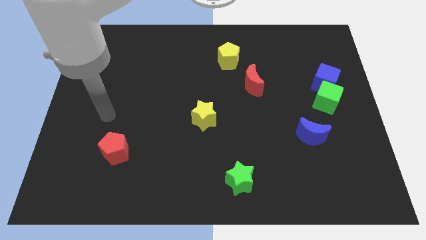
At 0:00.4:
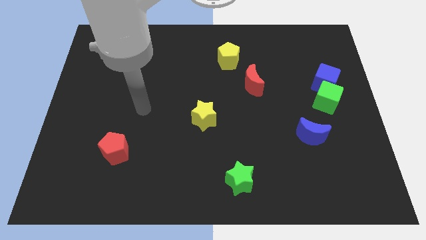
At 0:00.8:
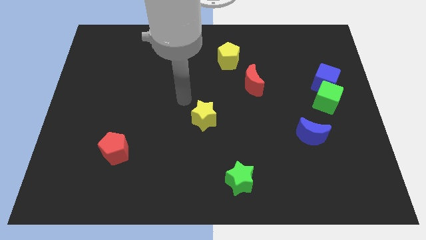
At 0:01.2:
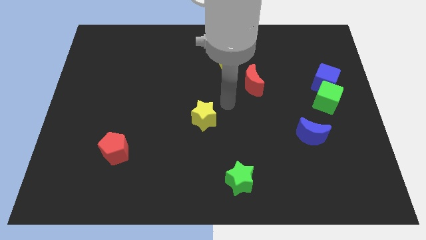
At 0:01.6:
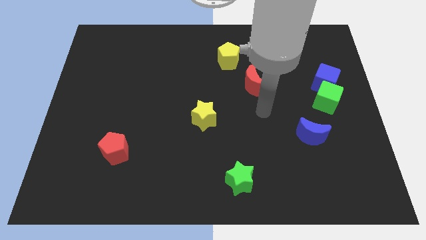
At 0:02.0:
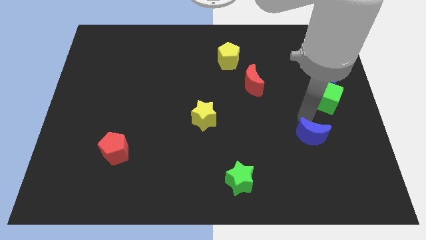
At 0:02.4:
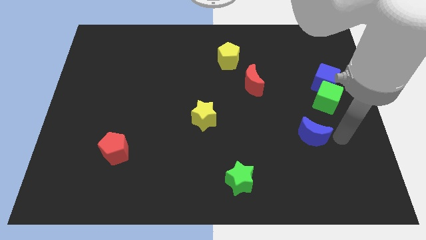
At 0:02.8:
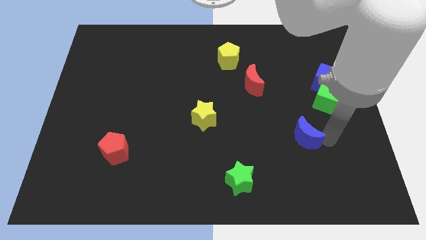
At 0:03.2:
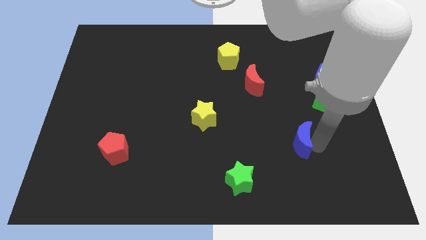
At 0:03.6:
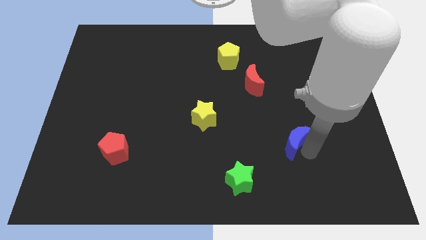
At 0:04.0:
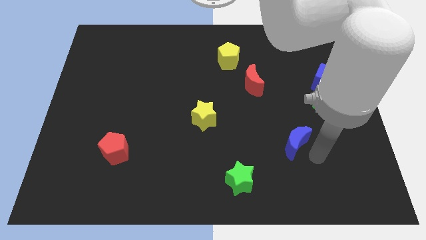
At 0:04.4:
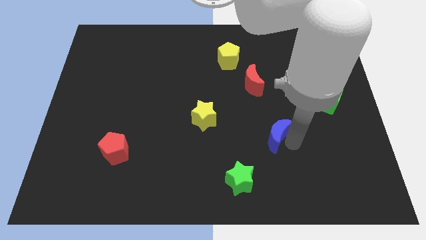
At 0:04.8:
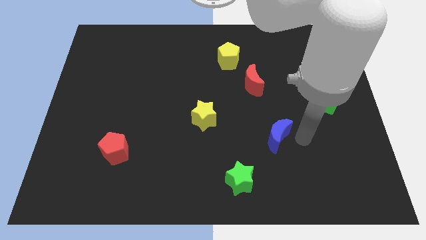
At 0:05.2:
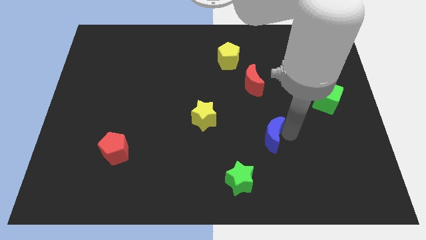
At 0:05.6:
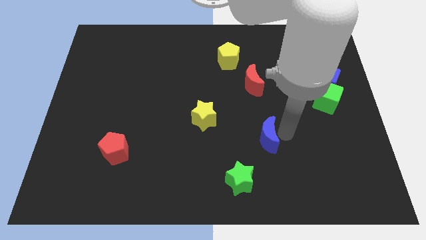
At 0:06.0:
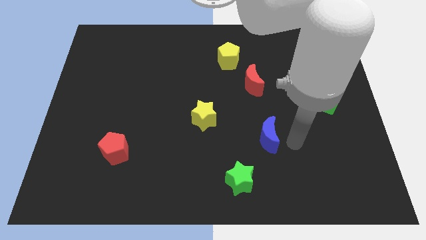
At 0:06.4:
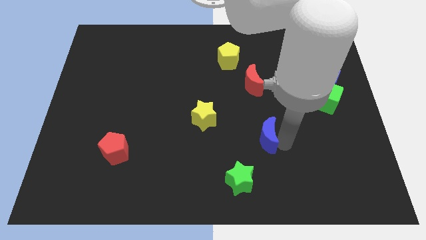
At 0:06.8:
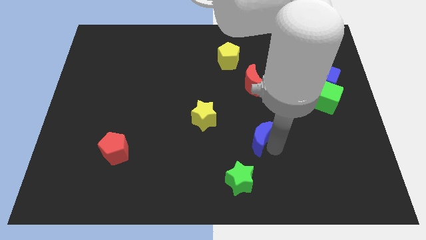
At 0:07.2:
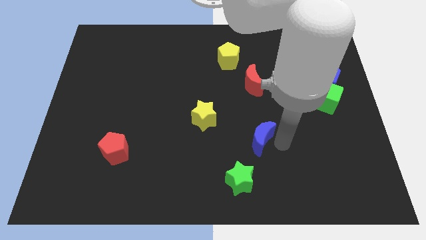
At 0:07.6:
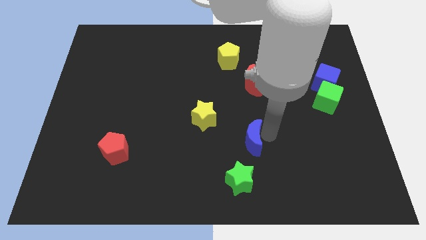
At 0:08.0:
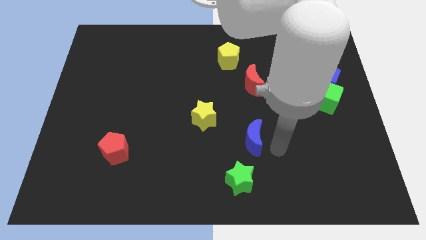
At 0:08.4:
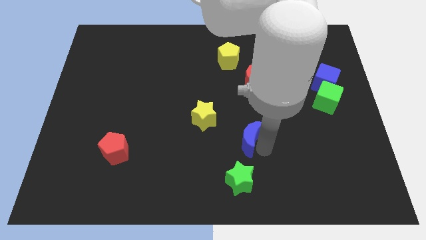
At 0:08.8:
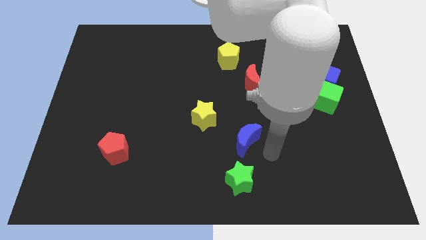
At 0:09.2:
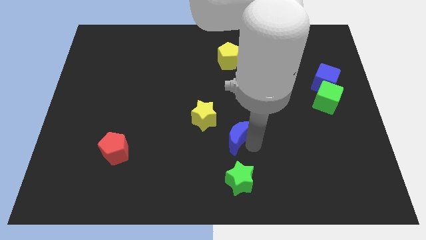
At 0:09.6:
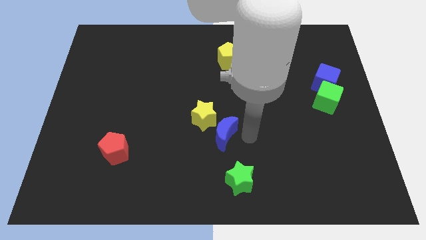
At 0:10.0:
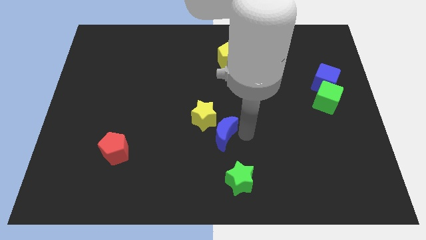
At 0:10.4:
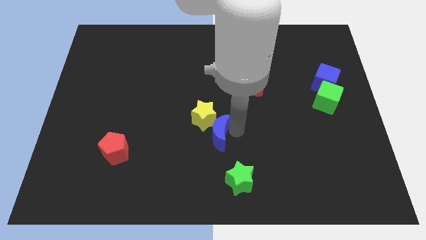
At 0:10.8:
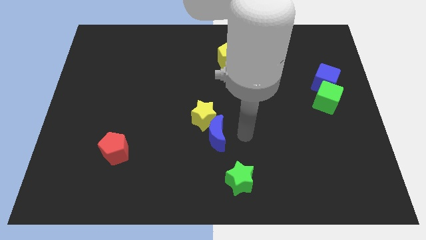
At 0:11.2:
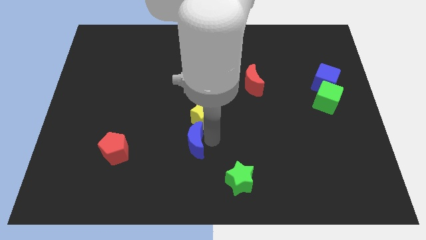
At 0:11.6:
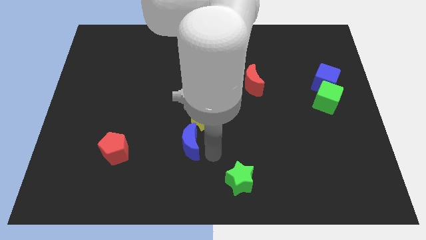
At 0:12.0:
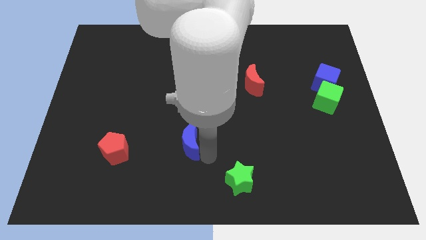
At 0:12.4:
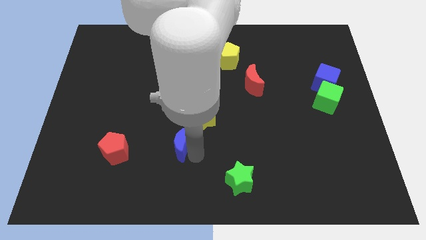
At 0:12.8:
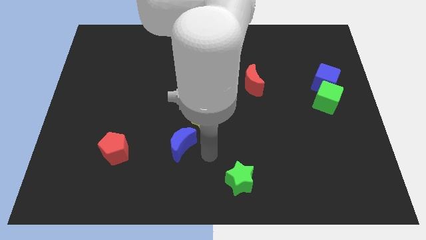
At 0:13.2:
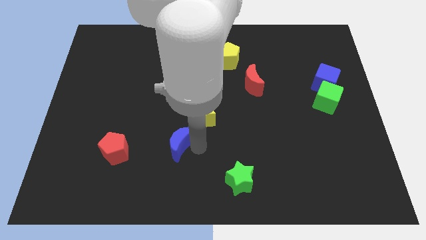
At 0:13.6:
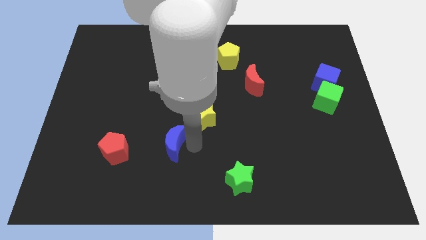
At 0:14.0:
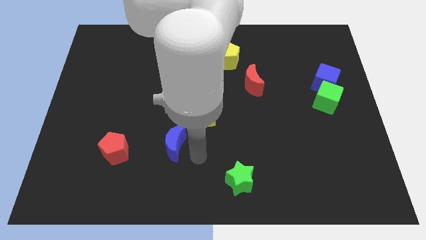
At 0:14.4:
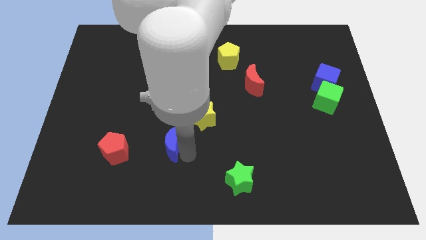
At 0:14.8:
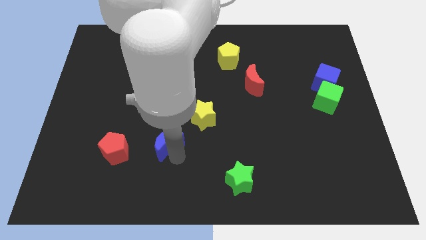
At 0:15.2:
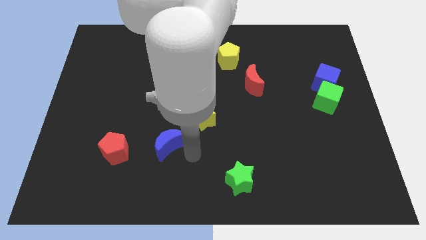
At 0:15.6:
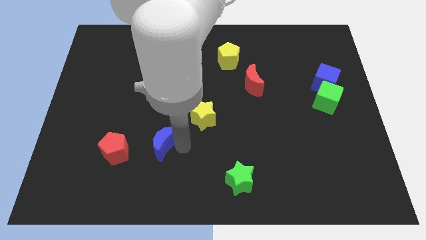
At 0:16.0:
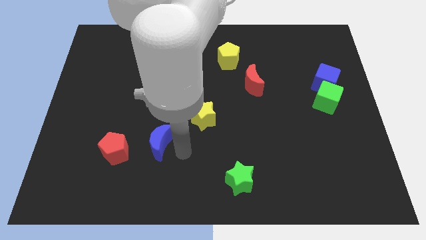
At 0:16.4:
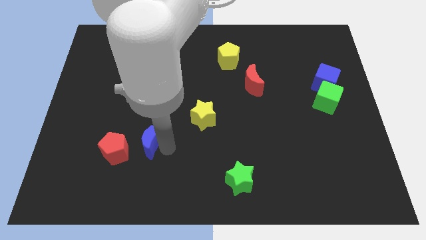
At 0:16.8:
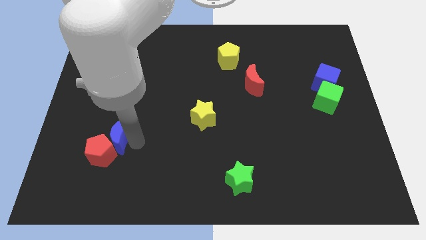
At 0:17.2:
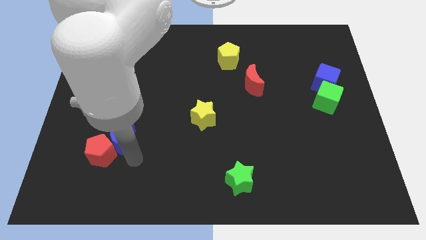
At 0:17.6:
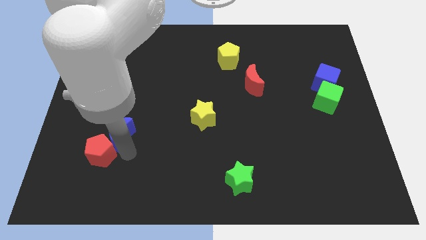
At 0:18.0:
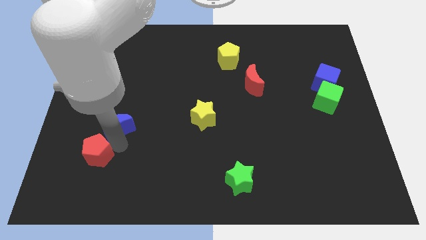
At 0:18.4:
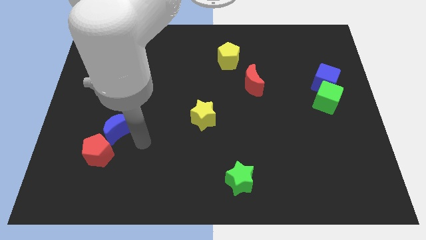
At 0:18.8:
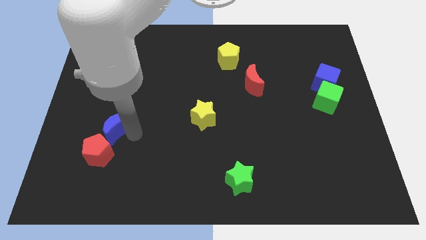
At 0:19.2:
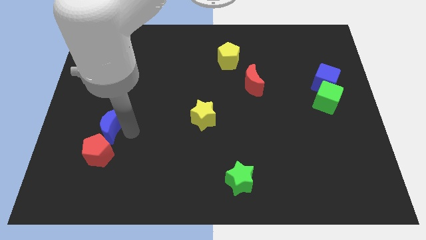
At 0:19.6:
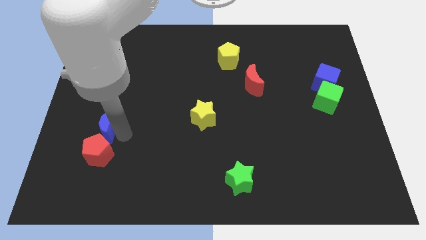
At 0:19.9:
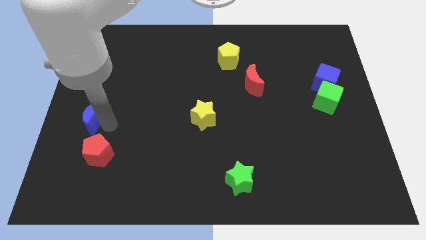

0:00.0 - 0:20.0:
push the blue moon to the left side of the board
